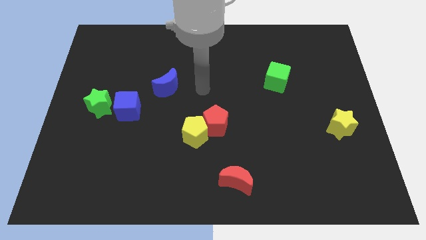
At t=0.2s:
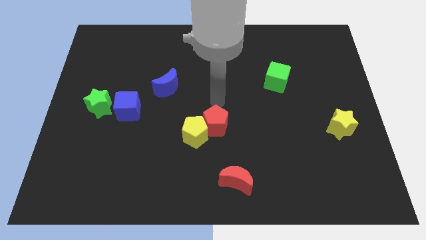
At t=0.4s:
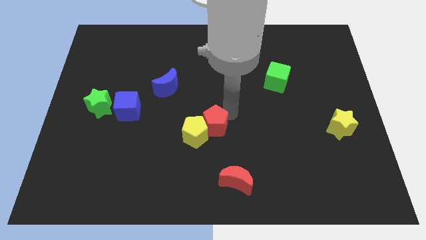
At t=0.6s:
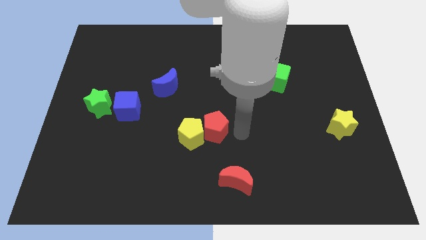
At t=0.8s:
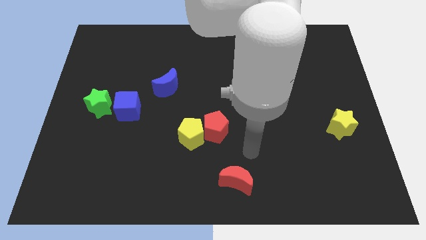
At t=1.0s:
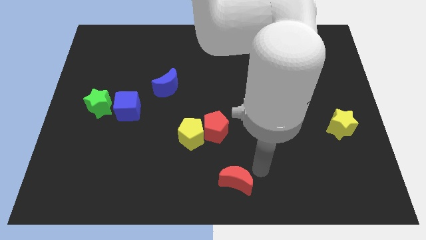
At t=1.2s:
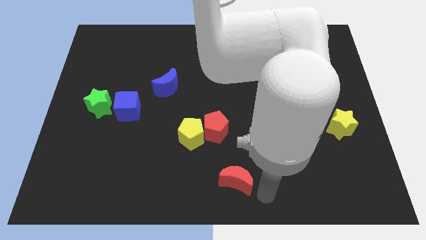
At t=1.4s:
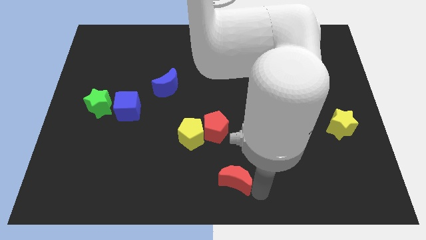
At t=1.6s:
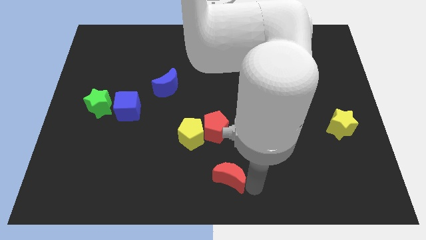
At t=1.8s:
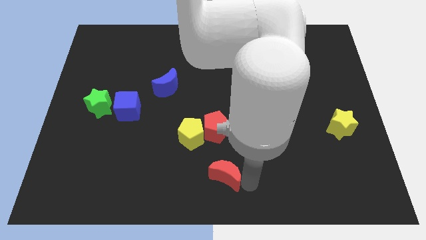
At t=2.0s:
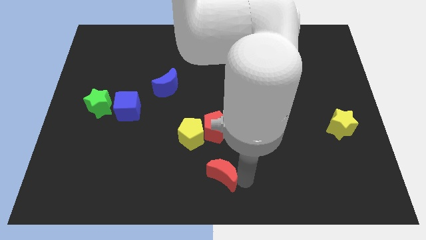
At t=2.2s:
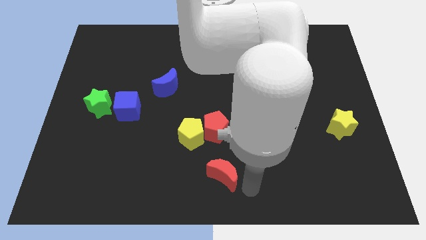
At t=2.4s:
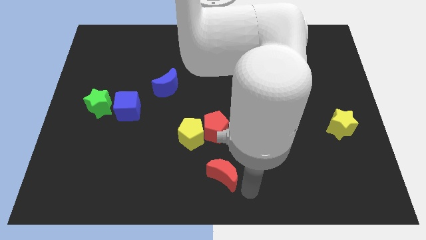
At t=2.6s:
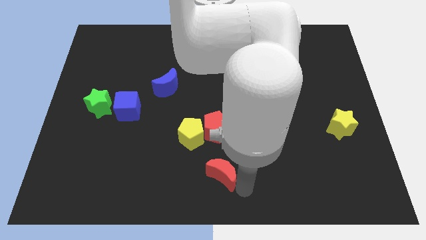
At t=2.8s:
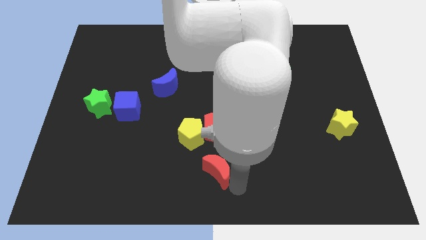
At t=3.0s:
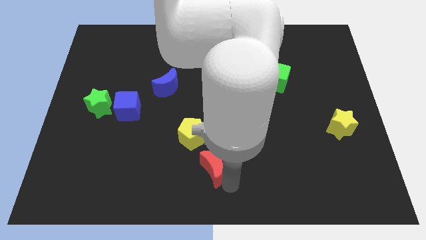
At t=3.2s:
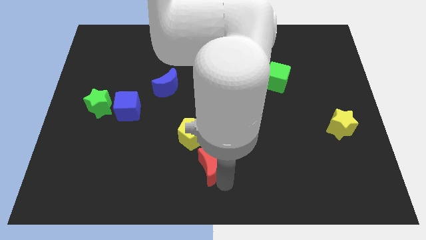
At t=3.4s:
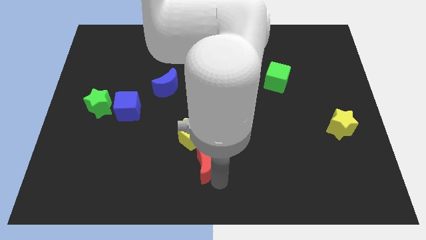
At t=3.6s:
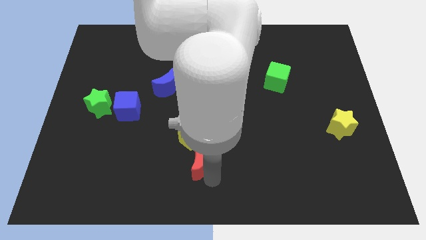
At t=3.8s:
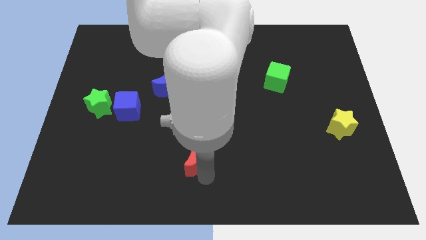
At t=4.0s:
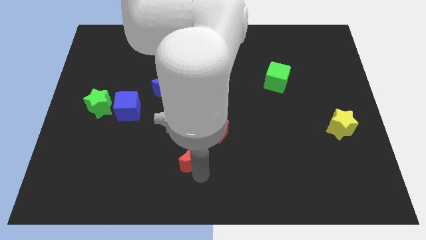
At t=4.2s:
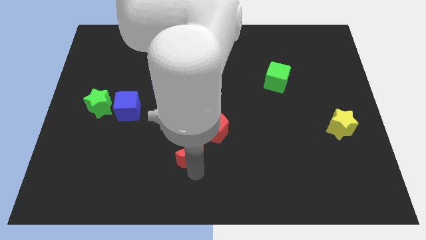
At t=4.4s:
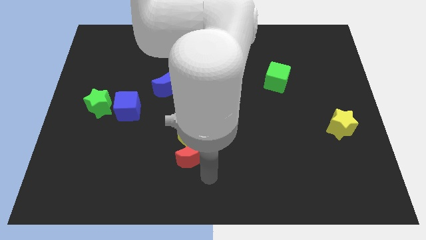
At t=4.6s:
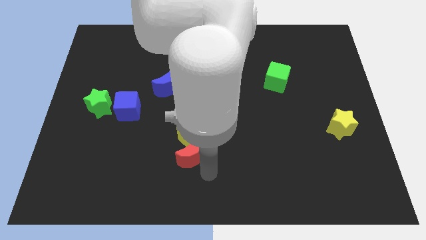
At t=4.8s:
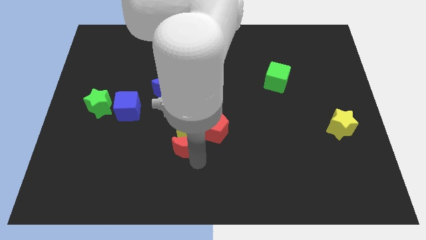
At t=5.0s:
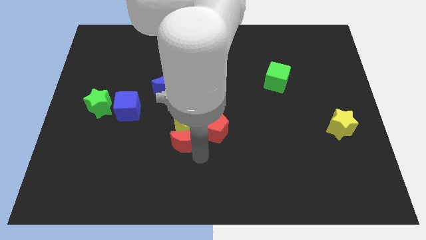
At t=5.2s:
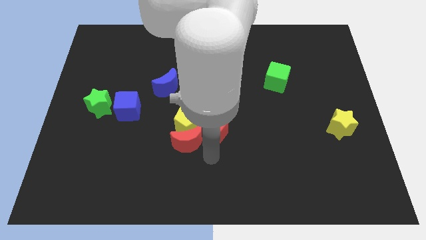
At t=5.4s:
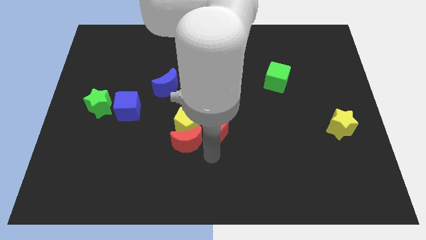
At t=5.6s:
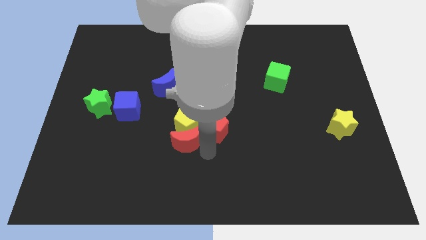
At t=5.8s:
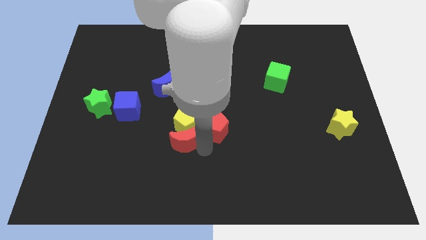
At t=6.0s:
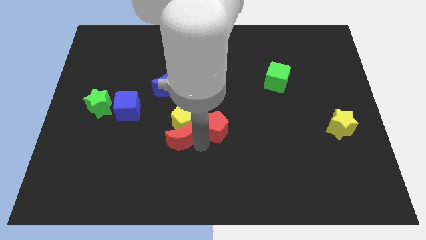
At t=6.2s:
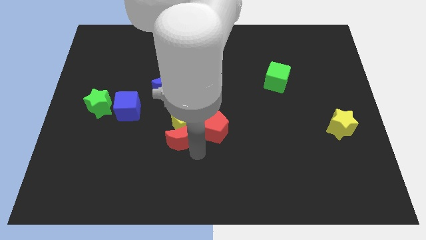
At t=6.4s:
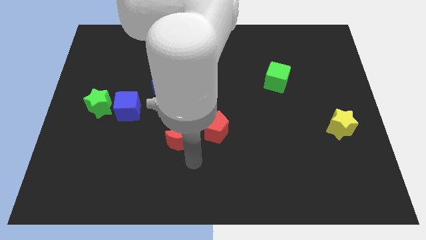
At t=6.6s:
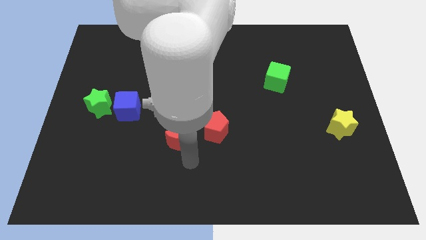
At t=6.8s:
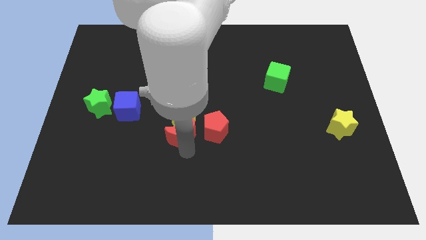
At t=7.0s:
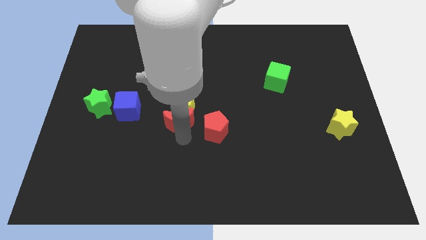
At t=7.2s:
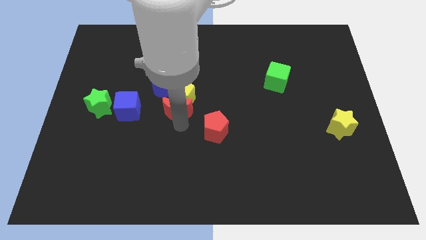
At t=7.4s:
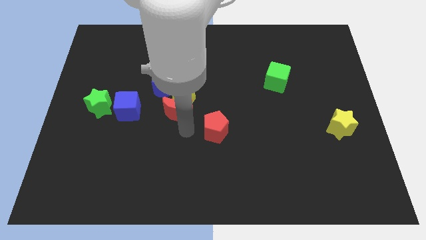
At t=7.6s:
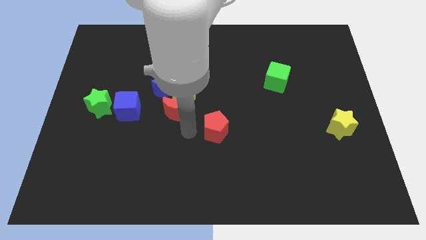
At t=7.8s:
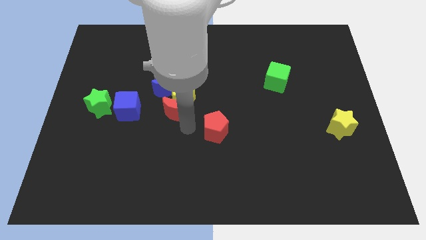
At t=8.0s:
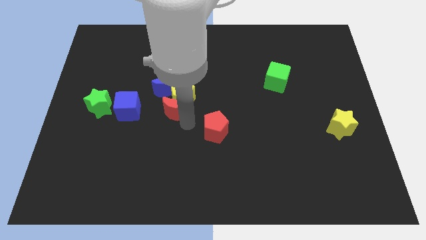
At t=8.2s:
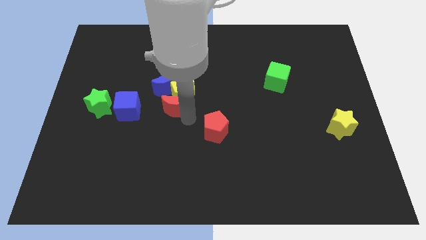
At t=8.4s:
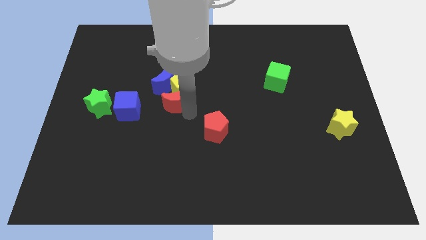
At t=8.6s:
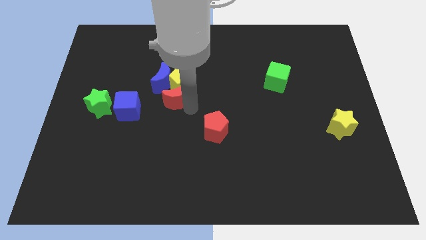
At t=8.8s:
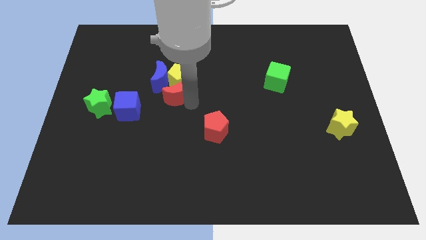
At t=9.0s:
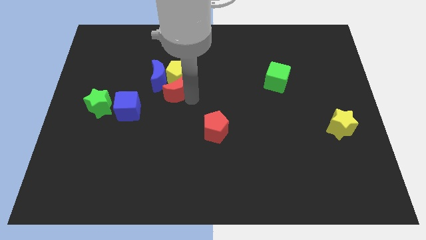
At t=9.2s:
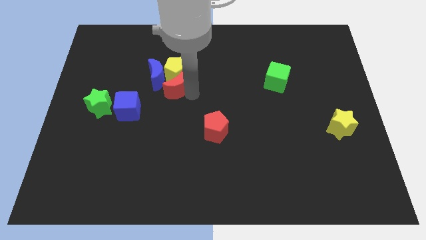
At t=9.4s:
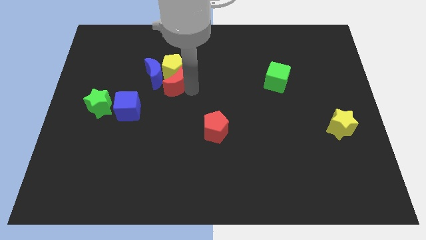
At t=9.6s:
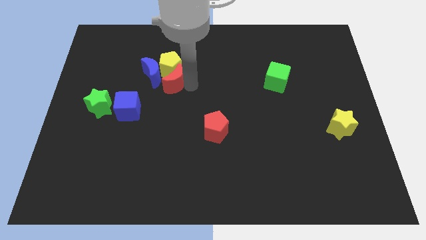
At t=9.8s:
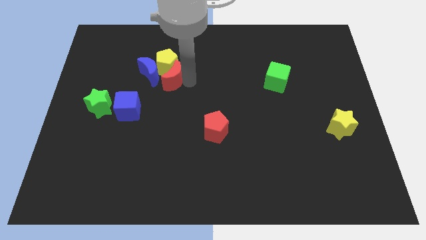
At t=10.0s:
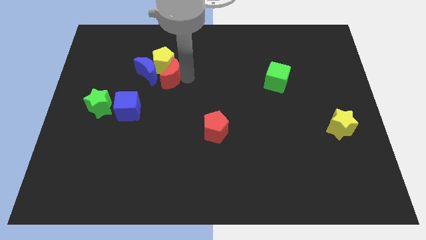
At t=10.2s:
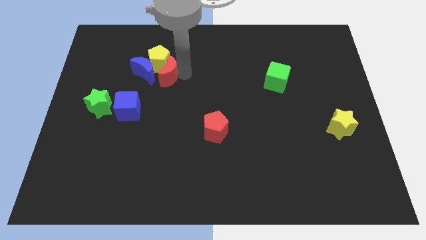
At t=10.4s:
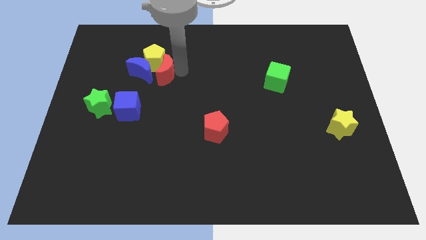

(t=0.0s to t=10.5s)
move the red moon to the blue moon

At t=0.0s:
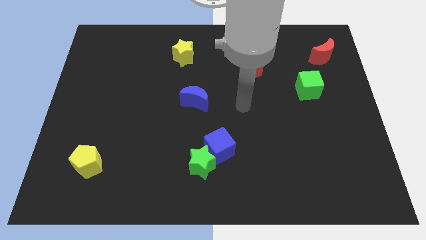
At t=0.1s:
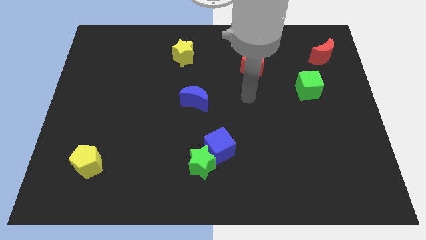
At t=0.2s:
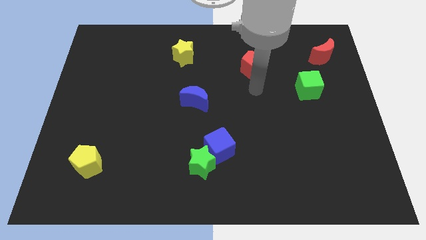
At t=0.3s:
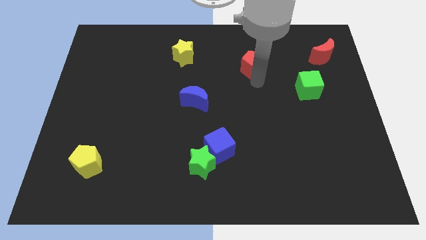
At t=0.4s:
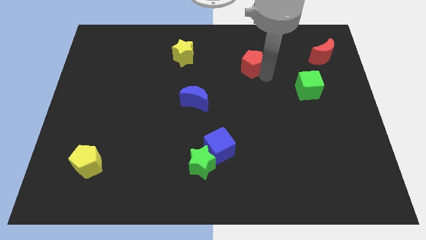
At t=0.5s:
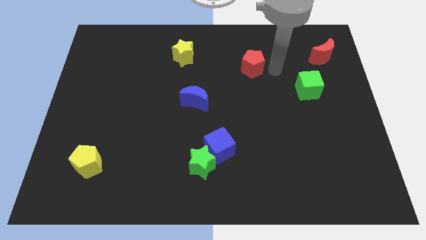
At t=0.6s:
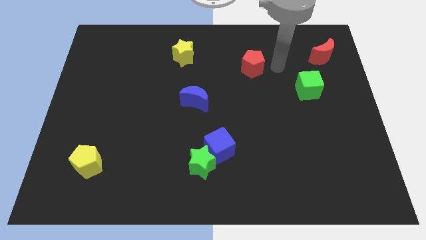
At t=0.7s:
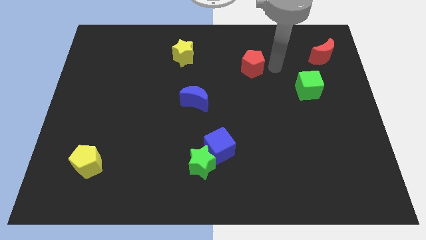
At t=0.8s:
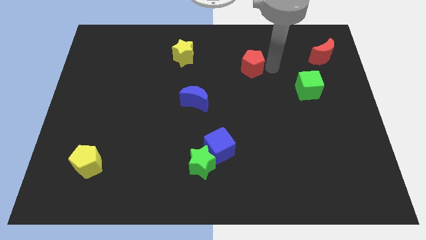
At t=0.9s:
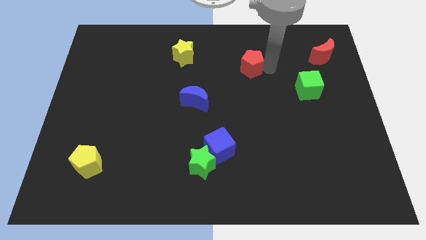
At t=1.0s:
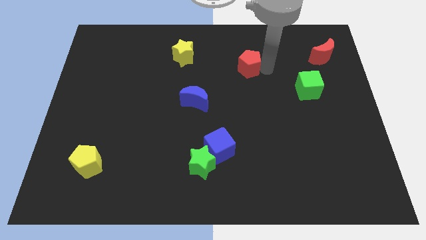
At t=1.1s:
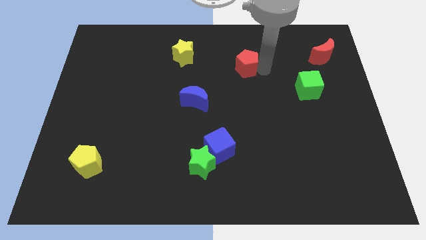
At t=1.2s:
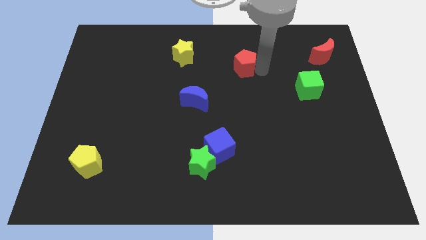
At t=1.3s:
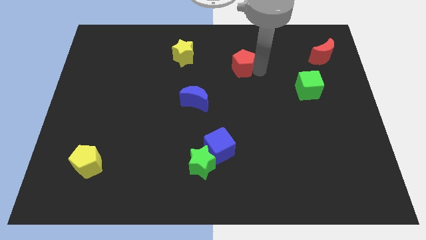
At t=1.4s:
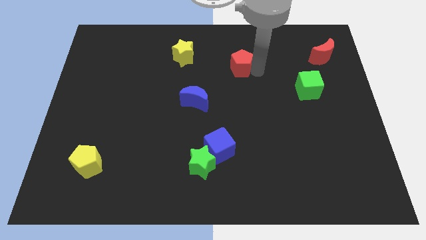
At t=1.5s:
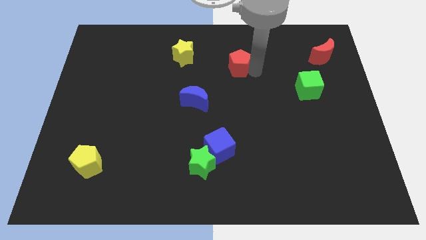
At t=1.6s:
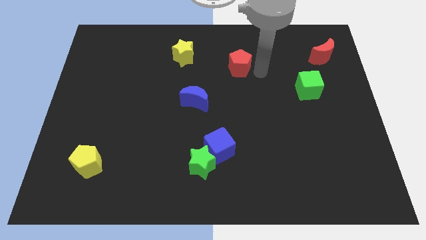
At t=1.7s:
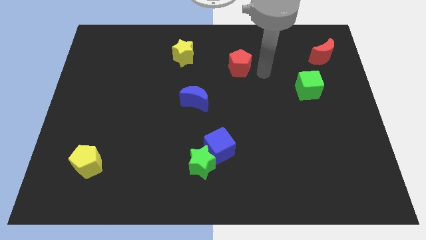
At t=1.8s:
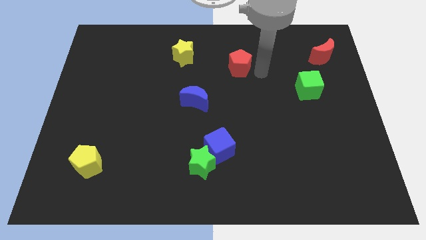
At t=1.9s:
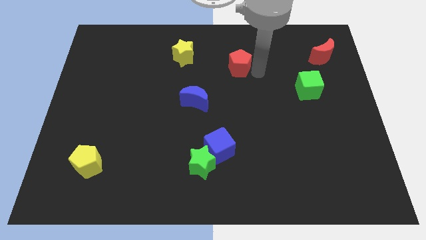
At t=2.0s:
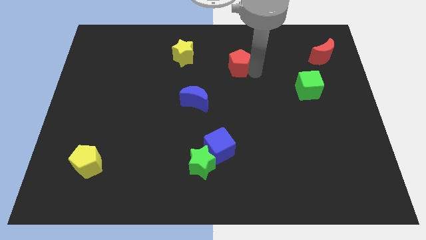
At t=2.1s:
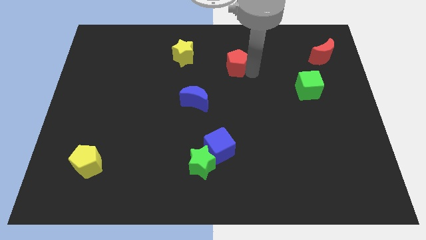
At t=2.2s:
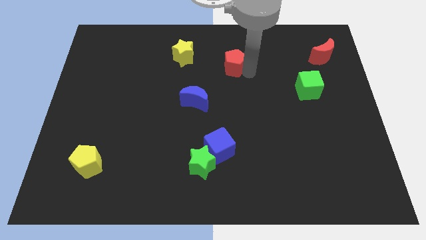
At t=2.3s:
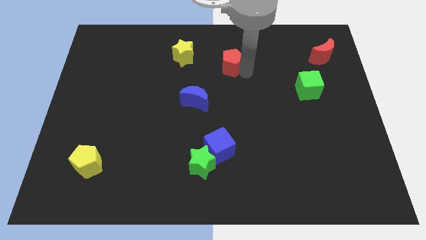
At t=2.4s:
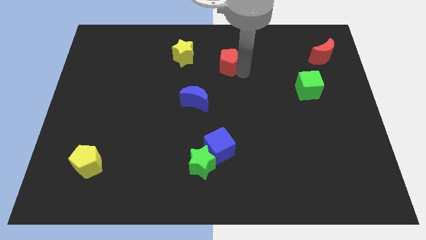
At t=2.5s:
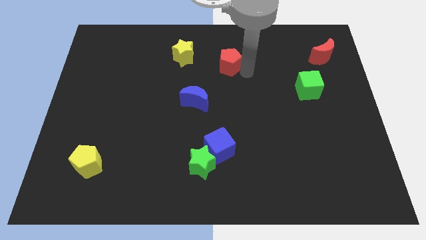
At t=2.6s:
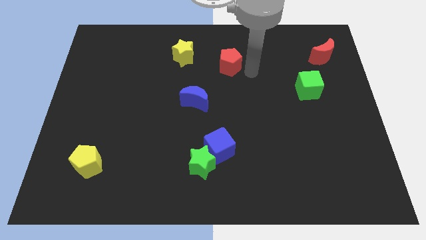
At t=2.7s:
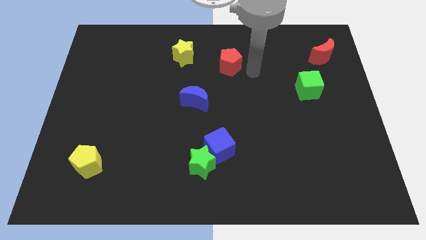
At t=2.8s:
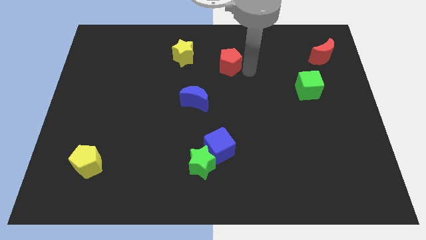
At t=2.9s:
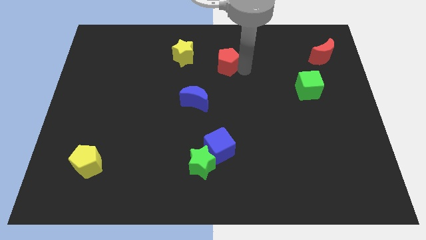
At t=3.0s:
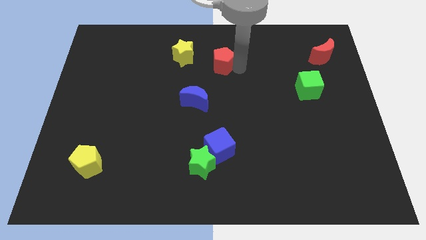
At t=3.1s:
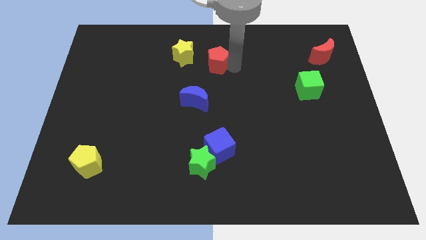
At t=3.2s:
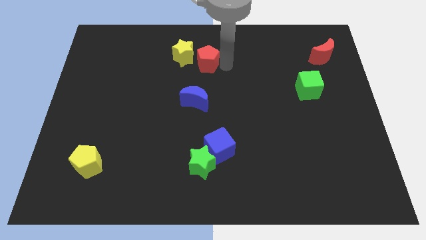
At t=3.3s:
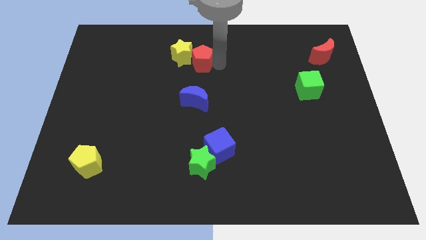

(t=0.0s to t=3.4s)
slide the red pentagon towards the yellow star
